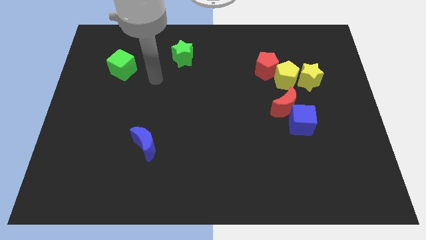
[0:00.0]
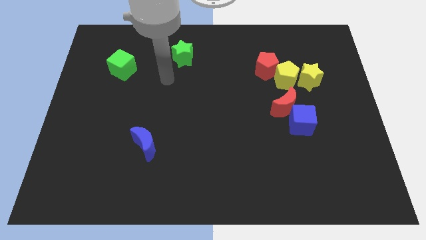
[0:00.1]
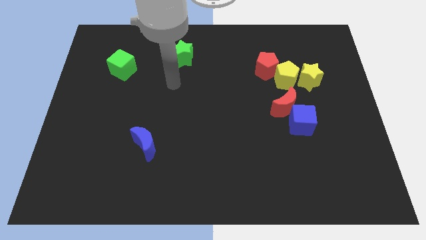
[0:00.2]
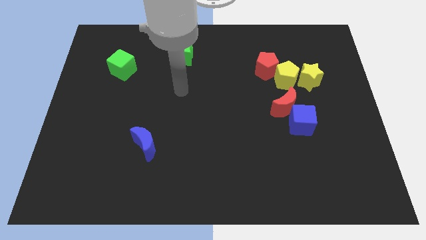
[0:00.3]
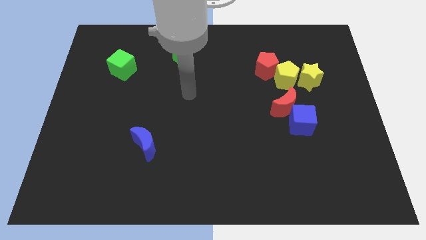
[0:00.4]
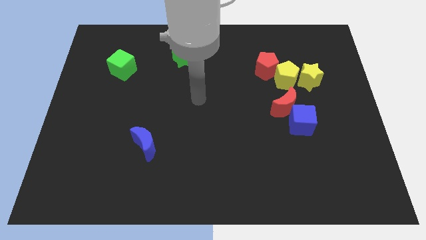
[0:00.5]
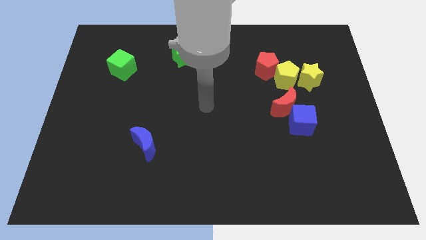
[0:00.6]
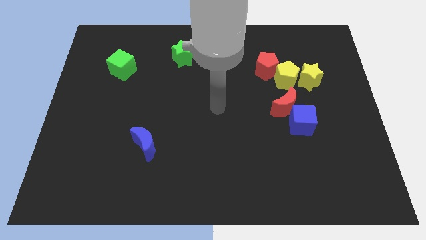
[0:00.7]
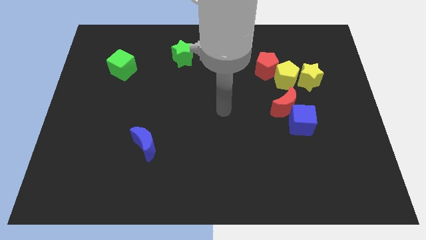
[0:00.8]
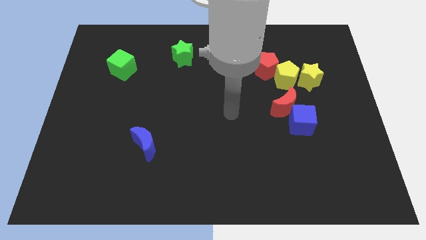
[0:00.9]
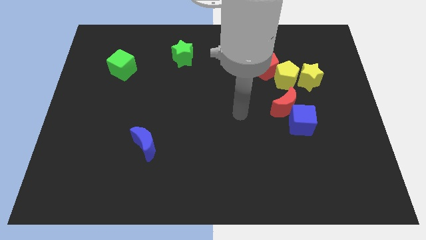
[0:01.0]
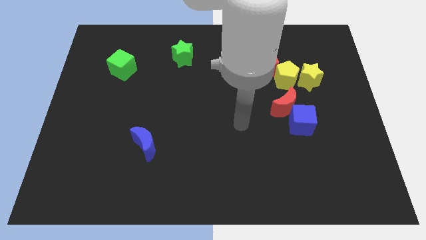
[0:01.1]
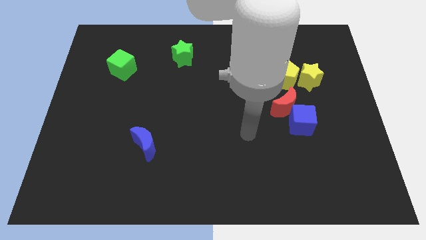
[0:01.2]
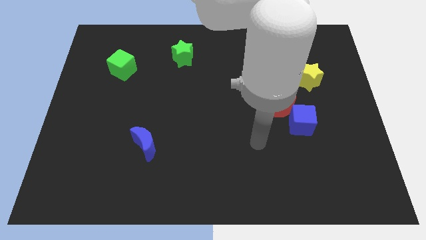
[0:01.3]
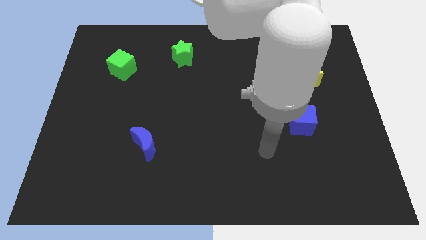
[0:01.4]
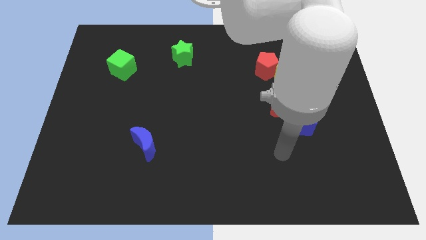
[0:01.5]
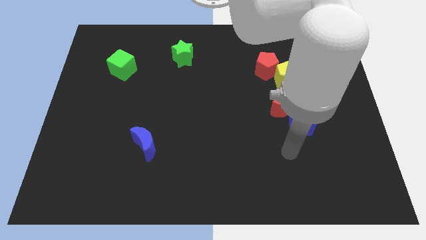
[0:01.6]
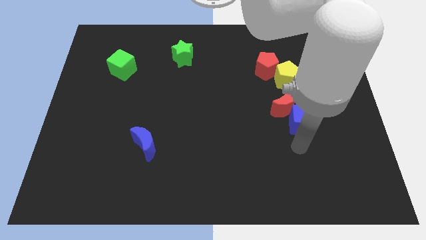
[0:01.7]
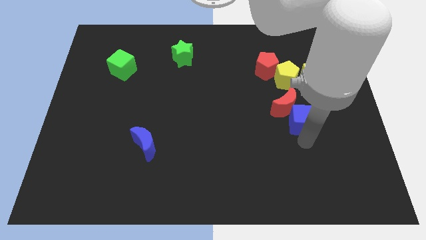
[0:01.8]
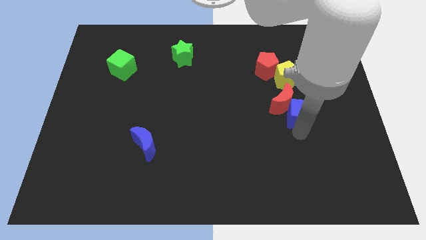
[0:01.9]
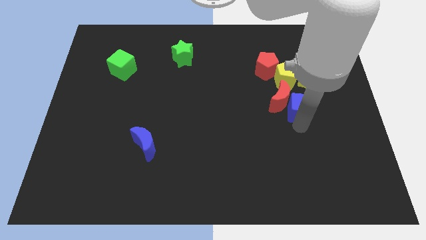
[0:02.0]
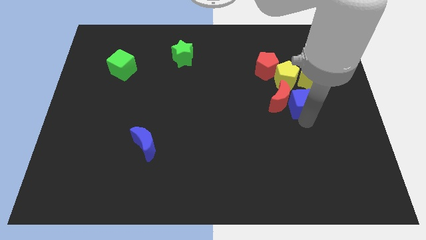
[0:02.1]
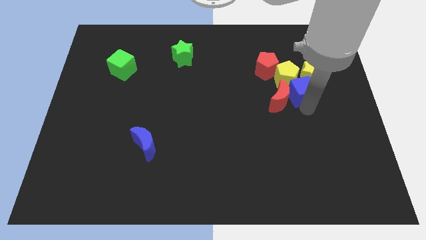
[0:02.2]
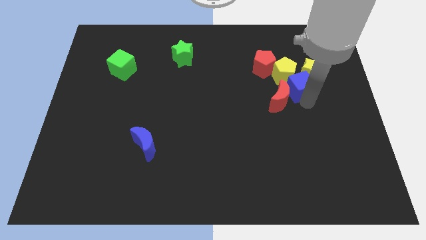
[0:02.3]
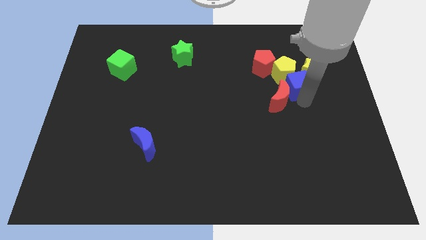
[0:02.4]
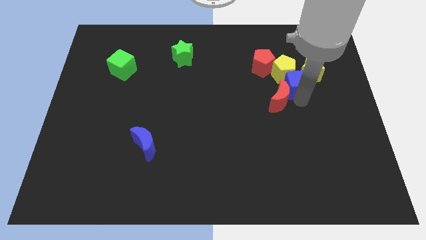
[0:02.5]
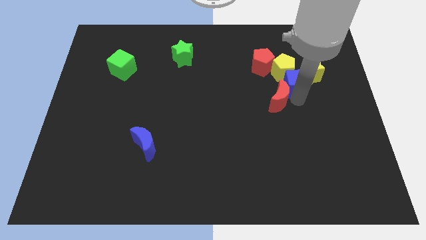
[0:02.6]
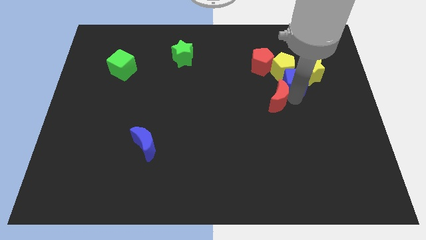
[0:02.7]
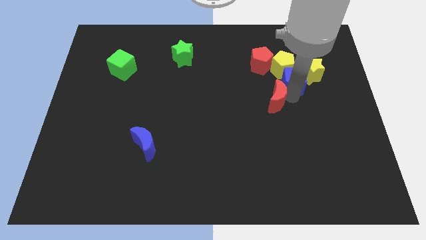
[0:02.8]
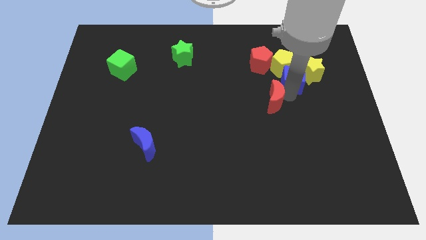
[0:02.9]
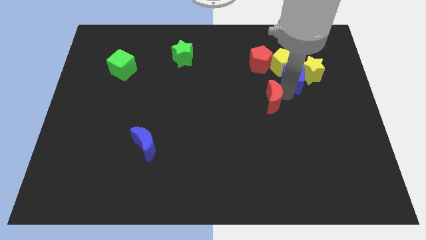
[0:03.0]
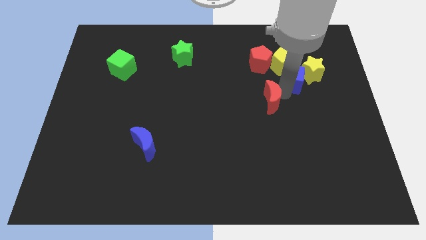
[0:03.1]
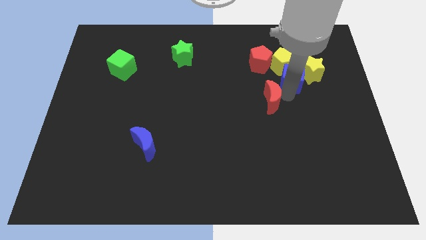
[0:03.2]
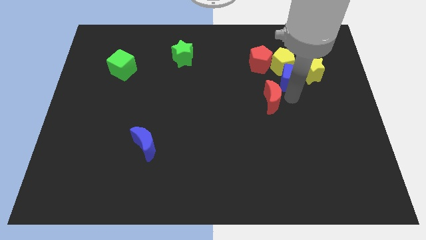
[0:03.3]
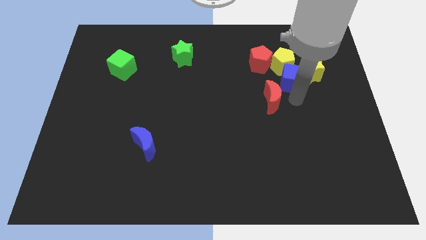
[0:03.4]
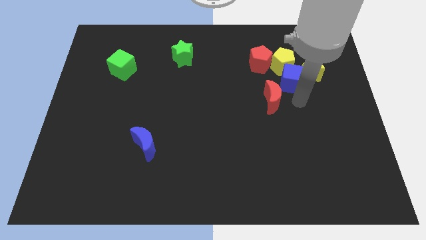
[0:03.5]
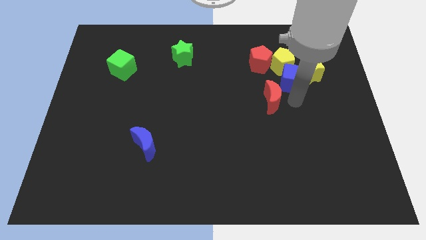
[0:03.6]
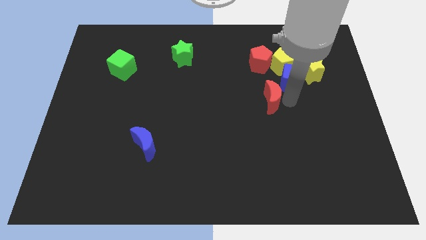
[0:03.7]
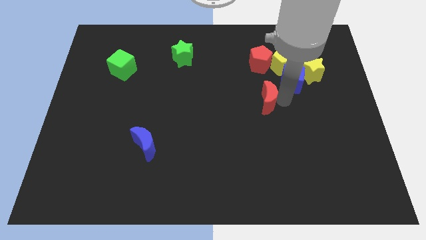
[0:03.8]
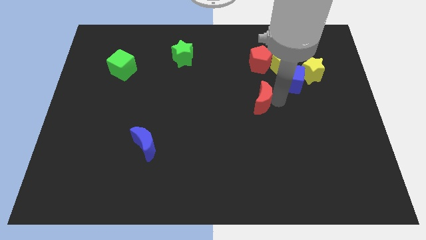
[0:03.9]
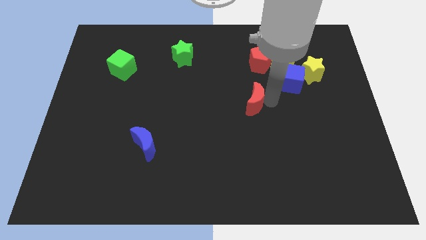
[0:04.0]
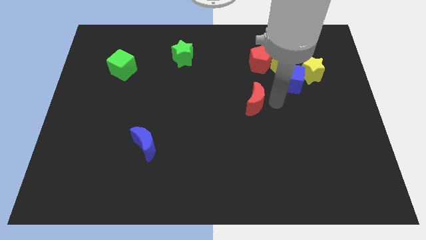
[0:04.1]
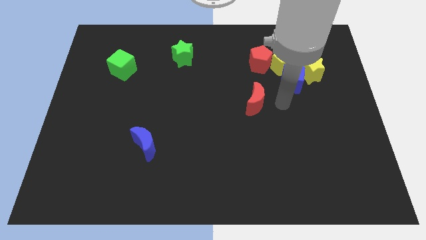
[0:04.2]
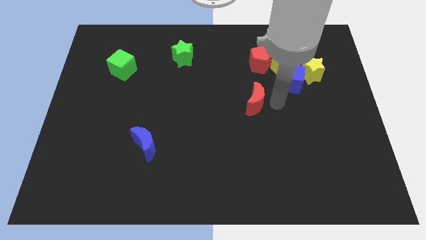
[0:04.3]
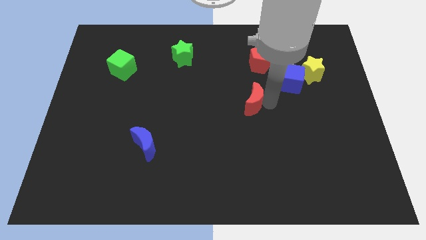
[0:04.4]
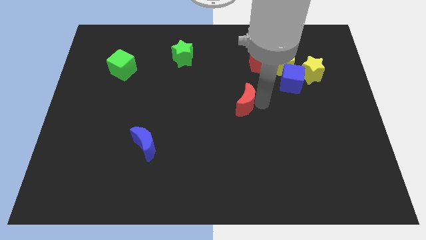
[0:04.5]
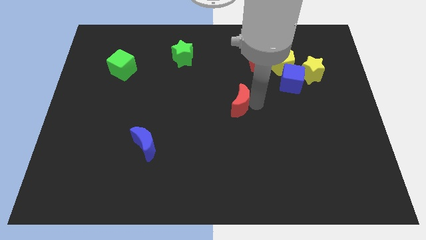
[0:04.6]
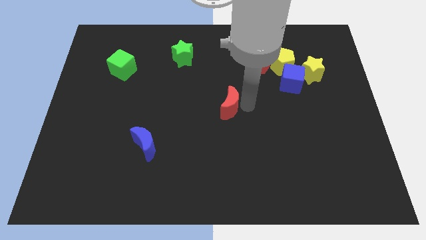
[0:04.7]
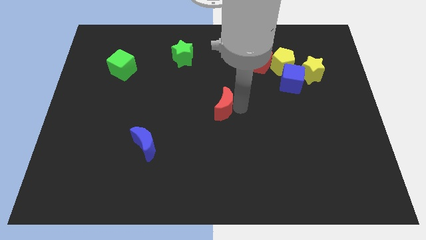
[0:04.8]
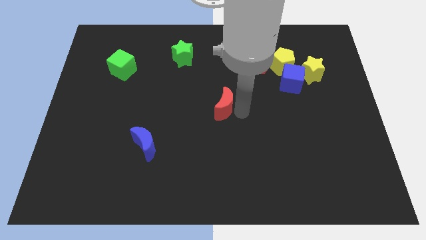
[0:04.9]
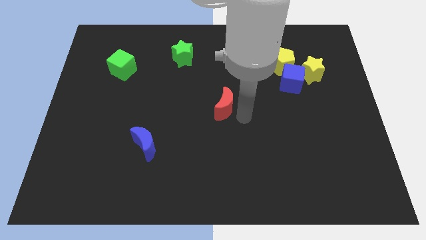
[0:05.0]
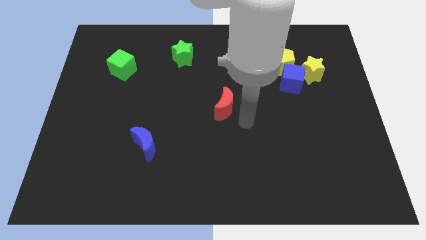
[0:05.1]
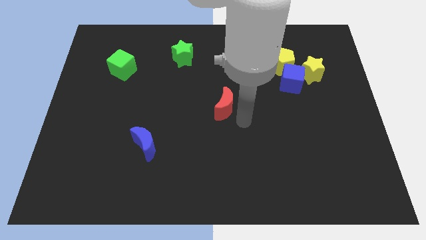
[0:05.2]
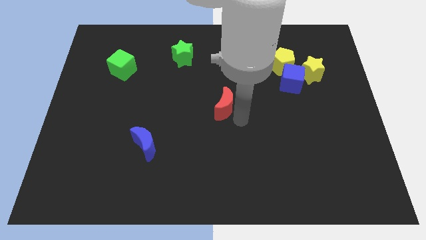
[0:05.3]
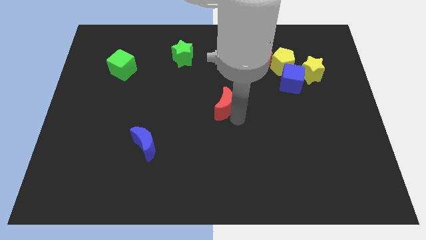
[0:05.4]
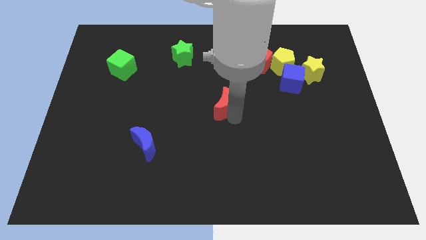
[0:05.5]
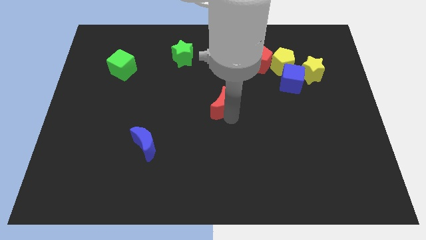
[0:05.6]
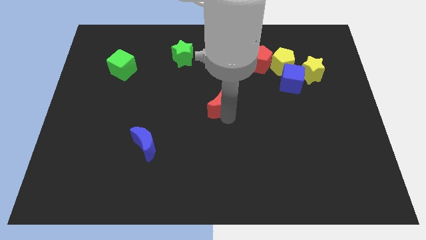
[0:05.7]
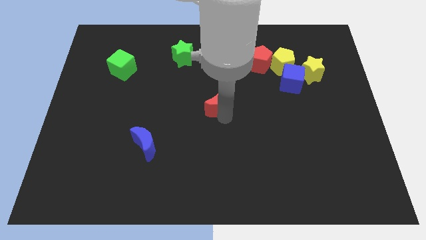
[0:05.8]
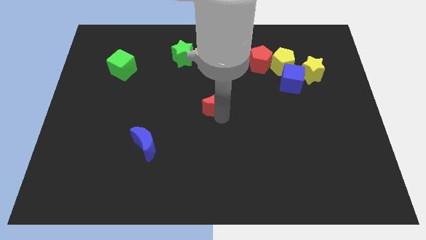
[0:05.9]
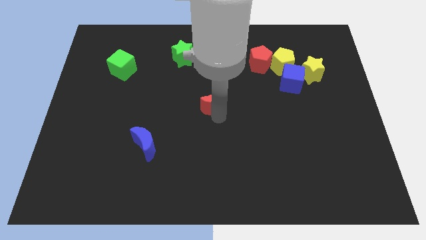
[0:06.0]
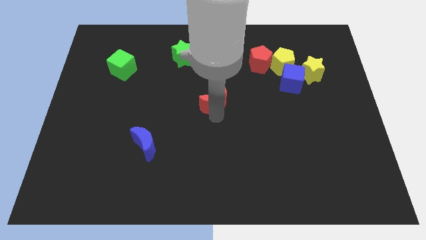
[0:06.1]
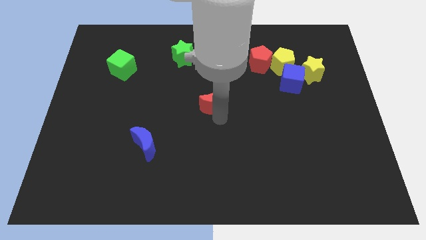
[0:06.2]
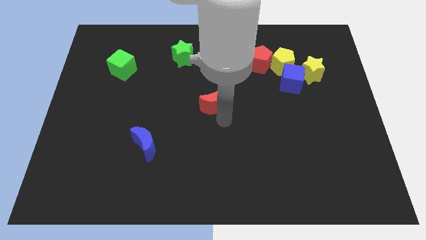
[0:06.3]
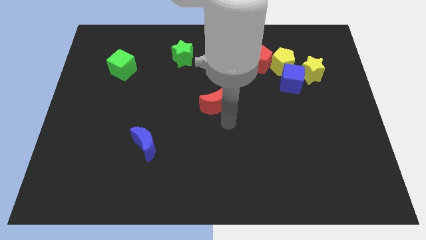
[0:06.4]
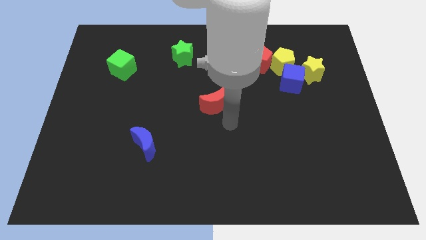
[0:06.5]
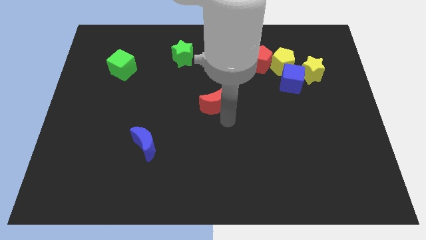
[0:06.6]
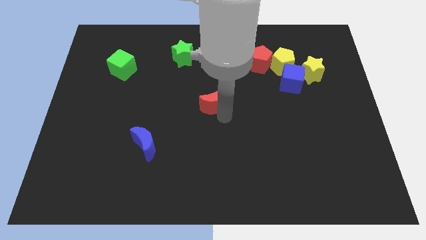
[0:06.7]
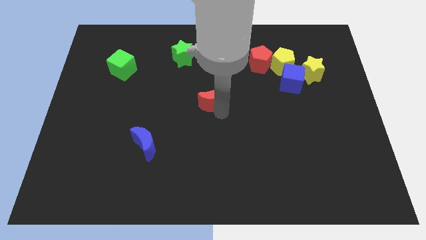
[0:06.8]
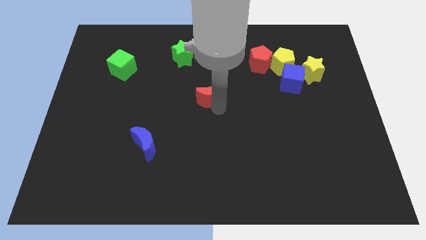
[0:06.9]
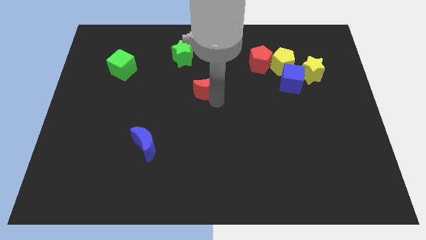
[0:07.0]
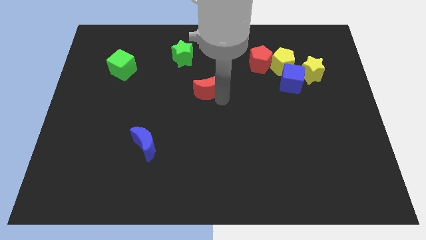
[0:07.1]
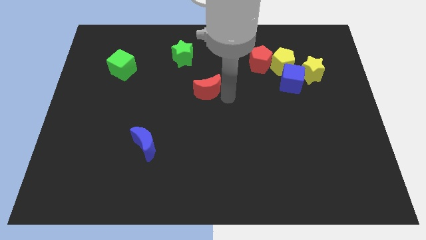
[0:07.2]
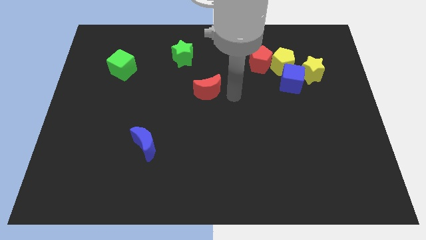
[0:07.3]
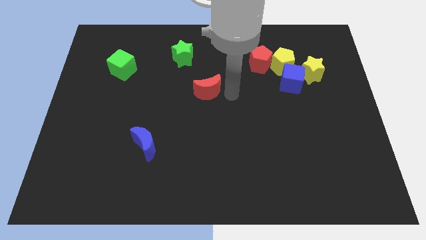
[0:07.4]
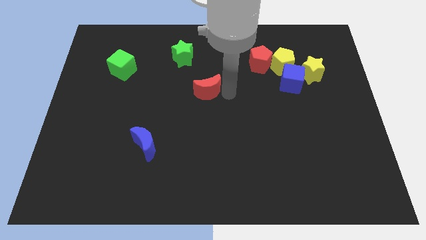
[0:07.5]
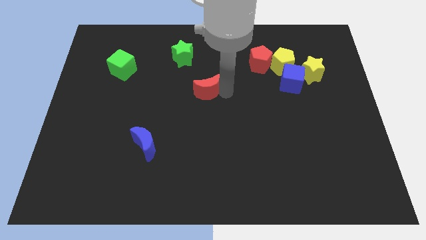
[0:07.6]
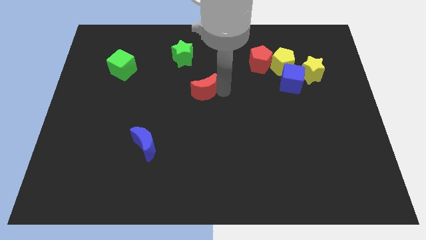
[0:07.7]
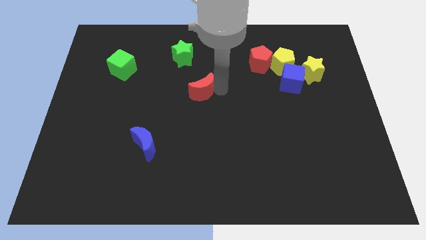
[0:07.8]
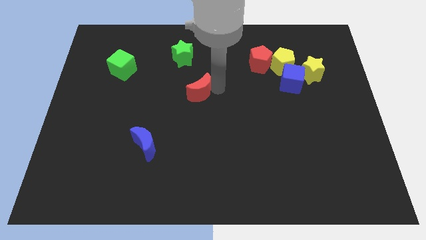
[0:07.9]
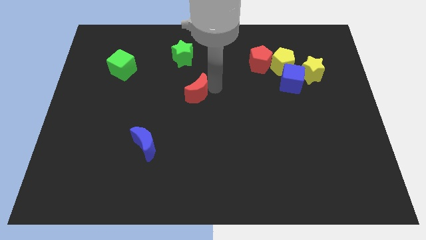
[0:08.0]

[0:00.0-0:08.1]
push the red moon below the green star
